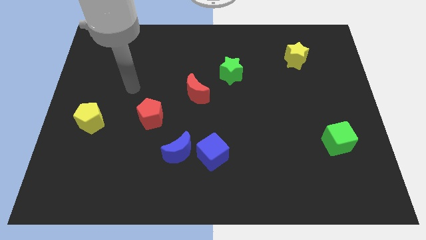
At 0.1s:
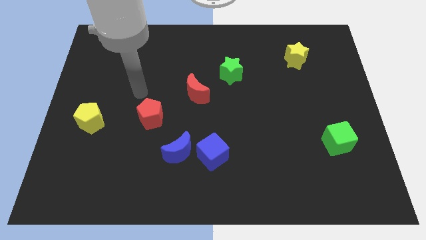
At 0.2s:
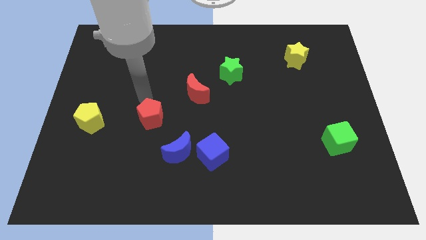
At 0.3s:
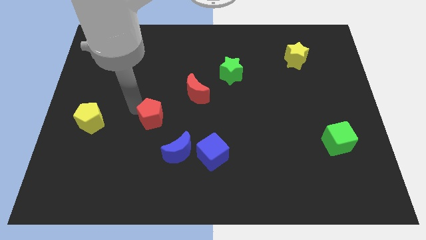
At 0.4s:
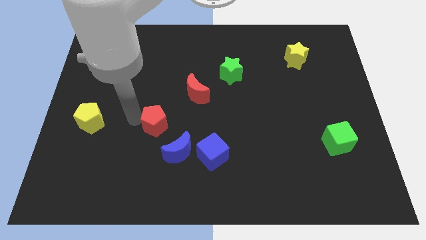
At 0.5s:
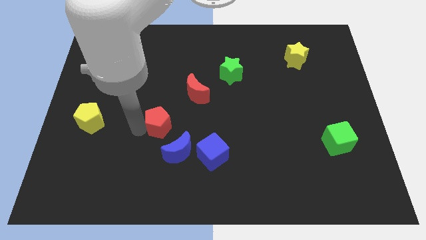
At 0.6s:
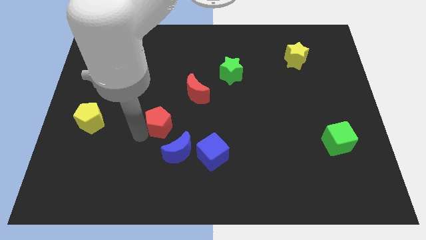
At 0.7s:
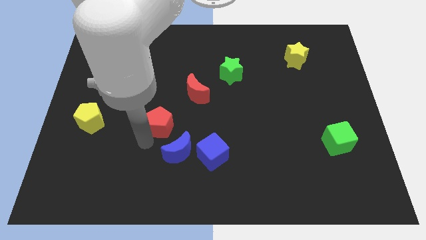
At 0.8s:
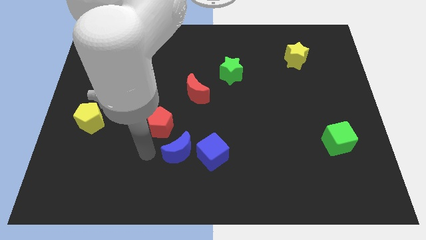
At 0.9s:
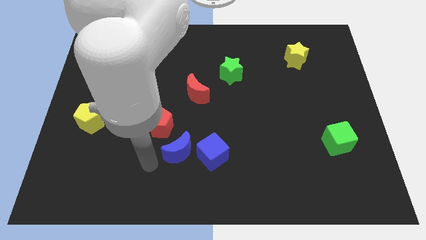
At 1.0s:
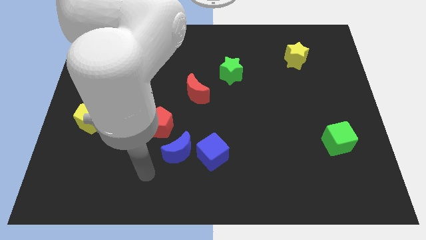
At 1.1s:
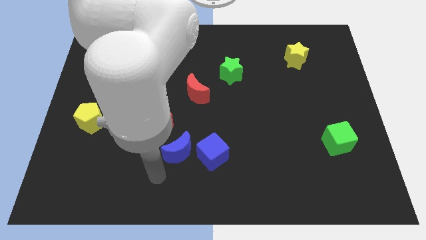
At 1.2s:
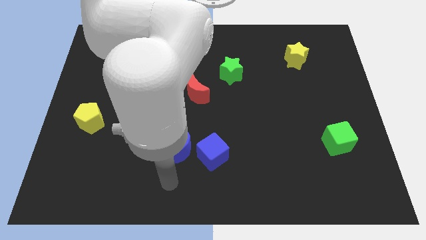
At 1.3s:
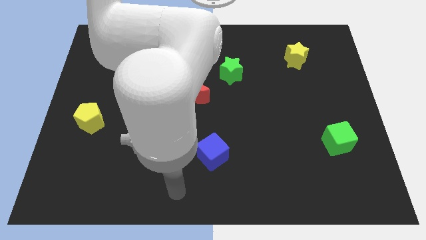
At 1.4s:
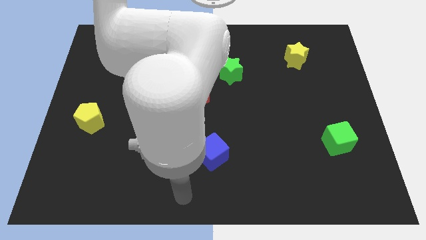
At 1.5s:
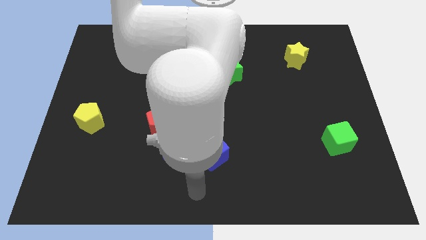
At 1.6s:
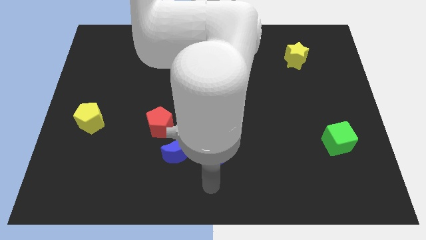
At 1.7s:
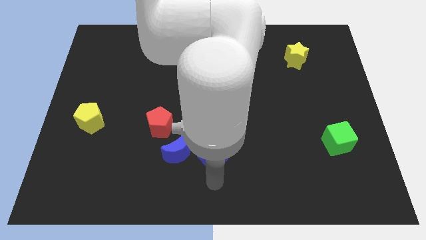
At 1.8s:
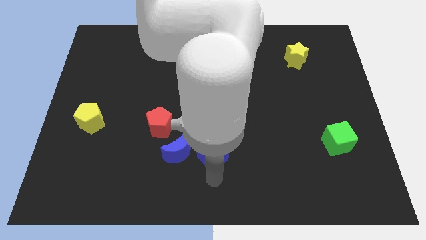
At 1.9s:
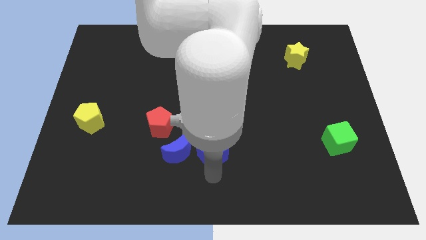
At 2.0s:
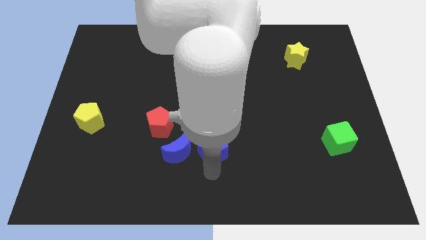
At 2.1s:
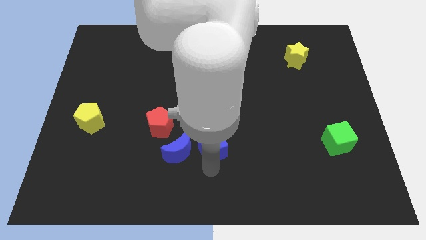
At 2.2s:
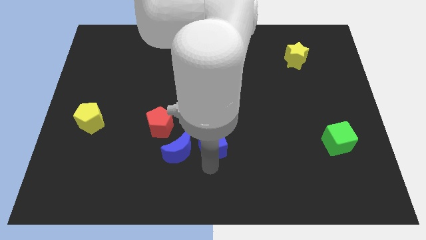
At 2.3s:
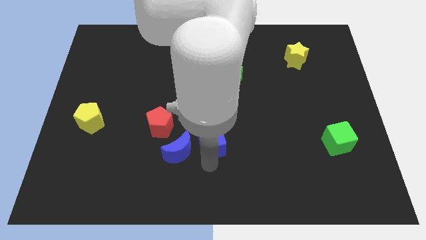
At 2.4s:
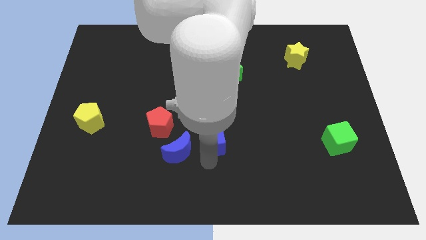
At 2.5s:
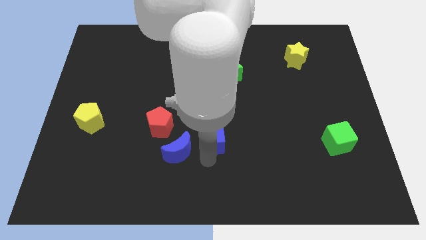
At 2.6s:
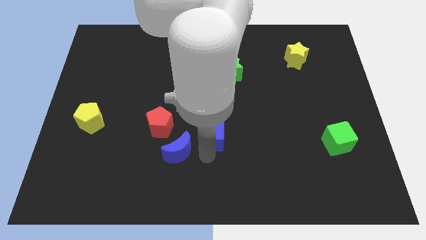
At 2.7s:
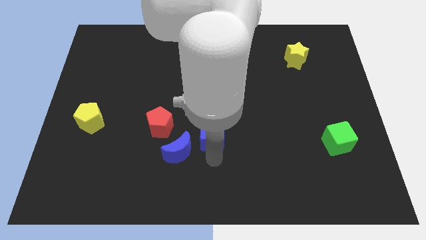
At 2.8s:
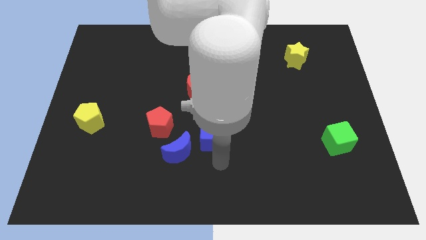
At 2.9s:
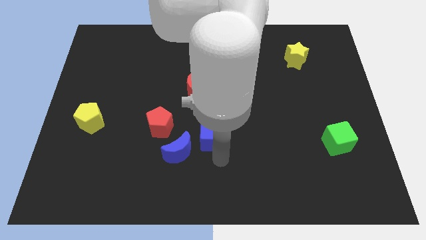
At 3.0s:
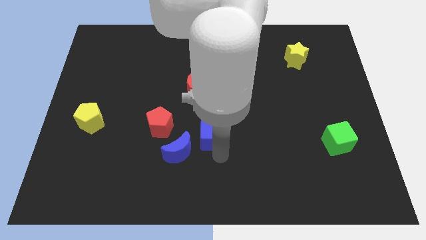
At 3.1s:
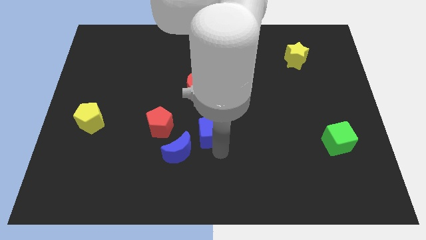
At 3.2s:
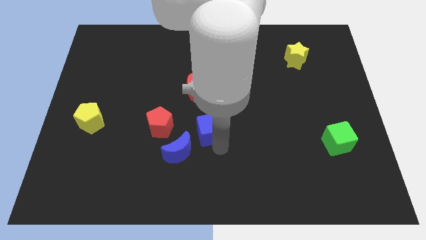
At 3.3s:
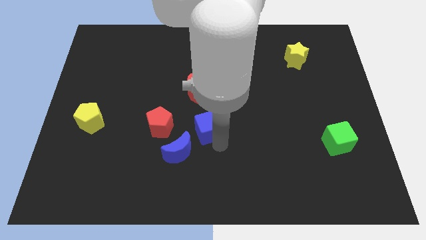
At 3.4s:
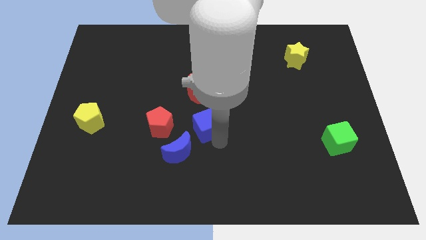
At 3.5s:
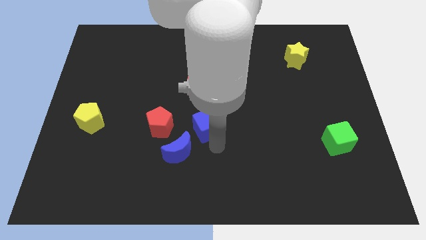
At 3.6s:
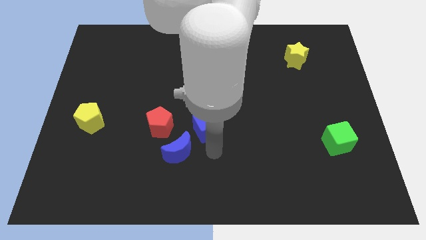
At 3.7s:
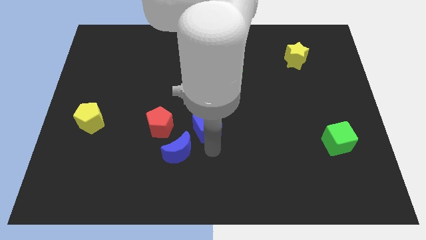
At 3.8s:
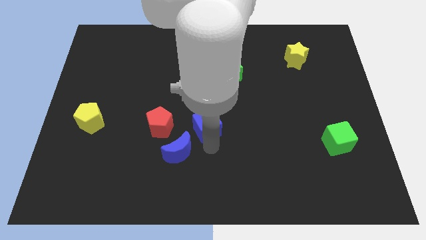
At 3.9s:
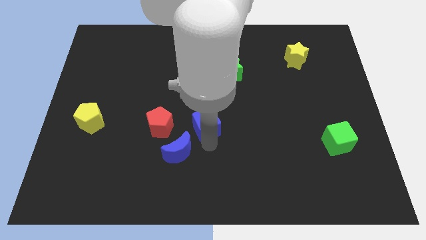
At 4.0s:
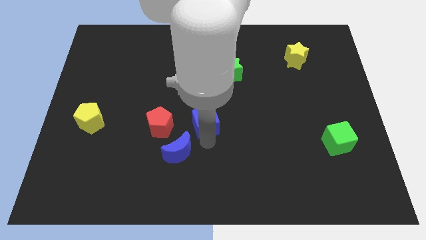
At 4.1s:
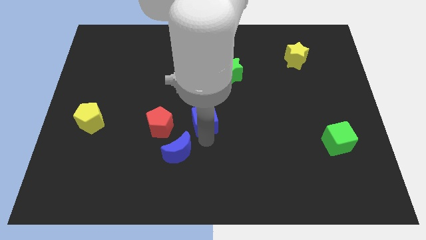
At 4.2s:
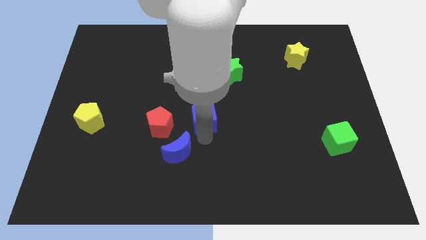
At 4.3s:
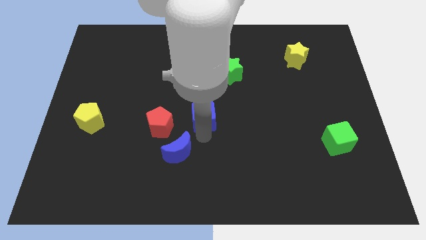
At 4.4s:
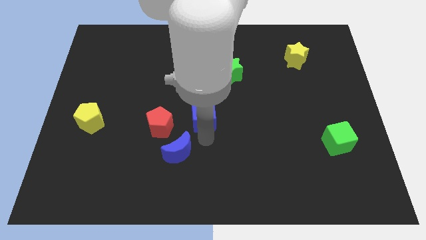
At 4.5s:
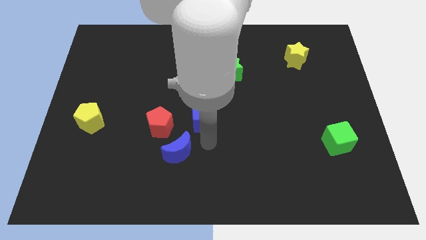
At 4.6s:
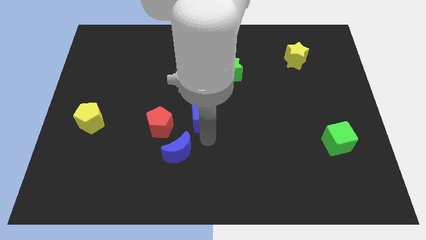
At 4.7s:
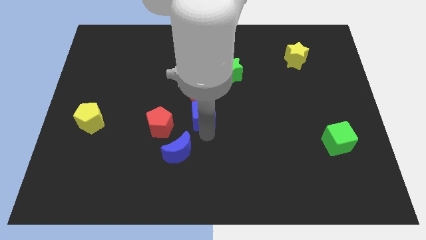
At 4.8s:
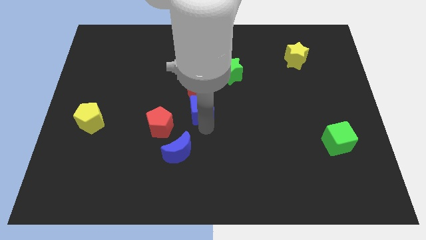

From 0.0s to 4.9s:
slide the blue cube next to the red moon

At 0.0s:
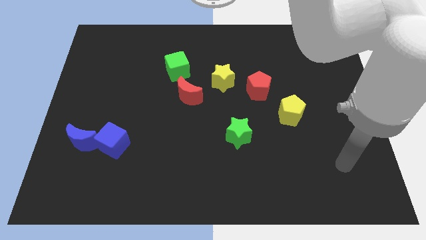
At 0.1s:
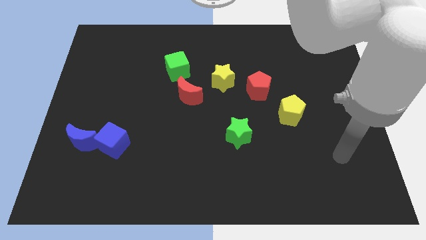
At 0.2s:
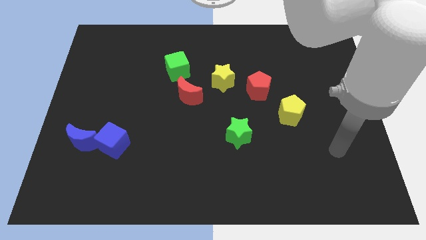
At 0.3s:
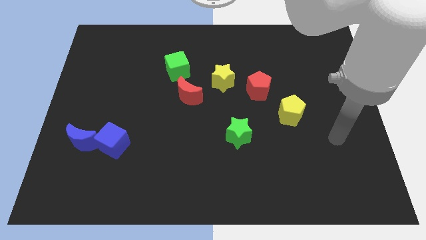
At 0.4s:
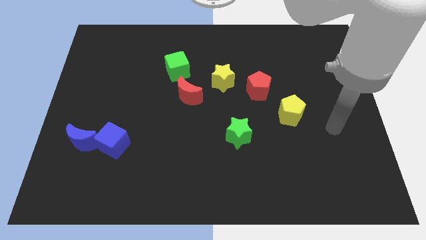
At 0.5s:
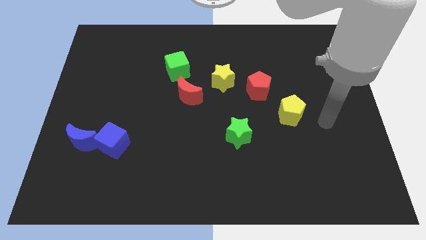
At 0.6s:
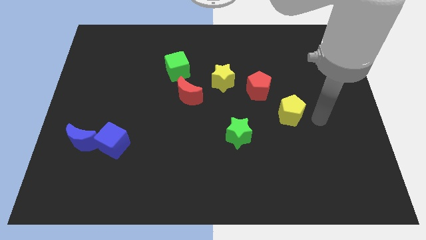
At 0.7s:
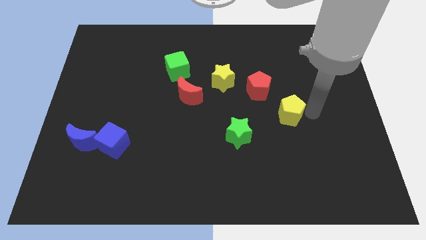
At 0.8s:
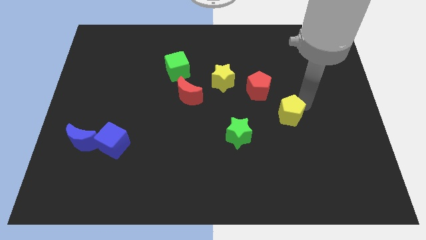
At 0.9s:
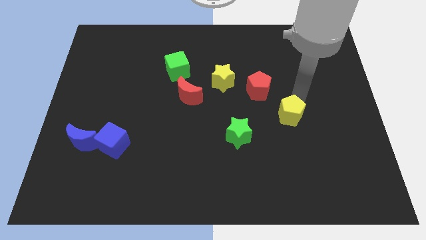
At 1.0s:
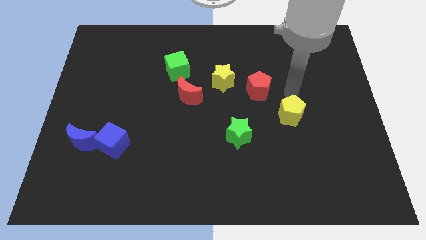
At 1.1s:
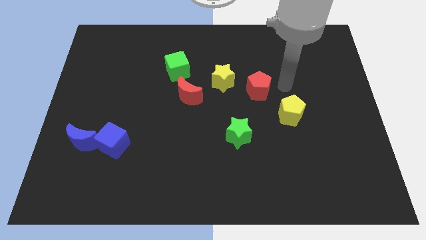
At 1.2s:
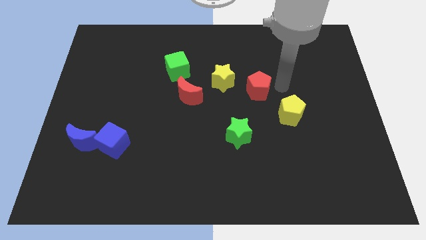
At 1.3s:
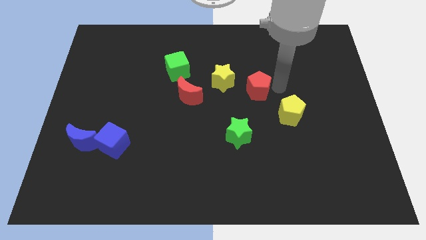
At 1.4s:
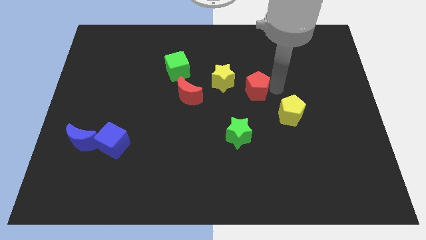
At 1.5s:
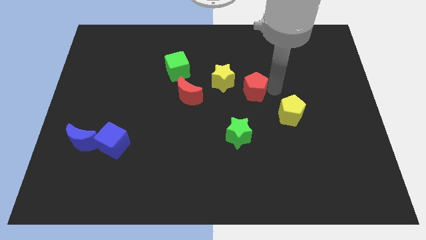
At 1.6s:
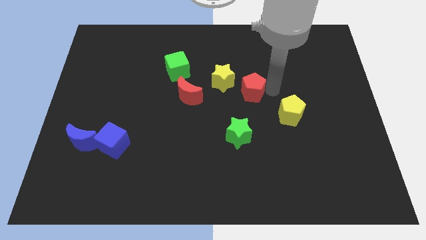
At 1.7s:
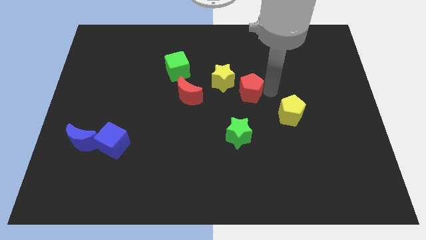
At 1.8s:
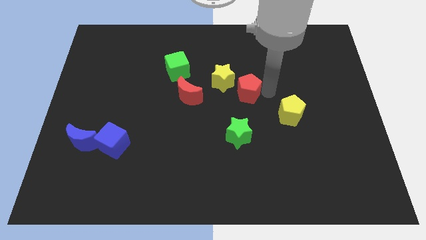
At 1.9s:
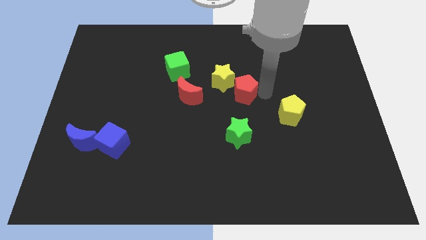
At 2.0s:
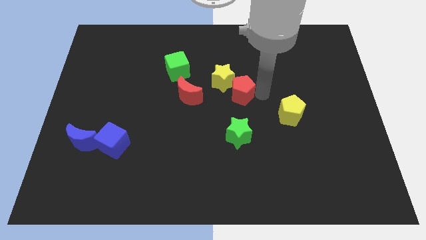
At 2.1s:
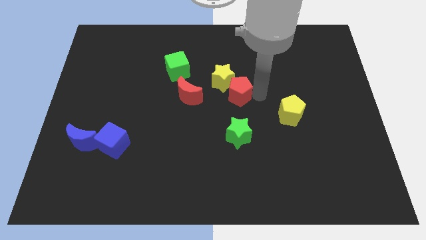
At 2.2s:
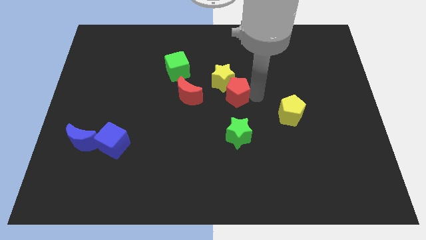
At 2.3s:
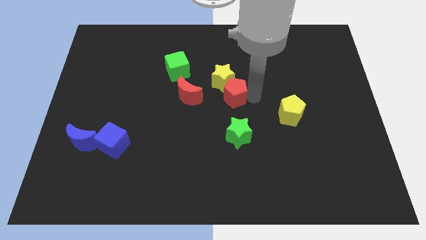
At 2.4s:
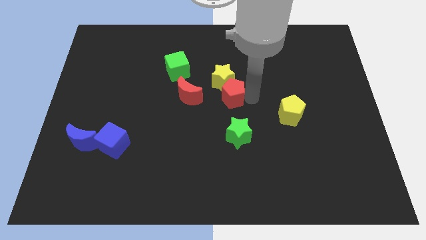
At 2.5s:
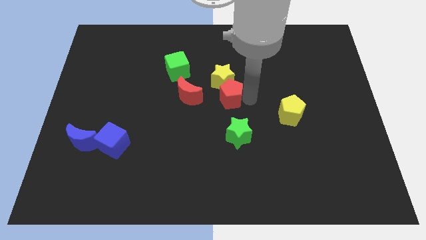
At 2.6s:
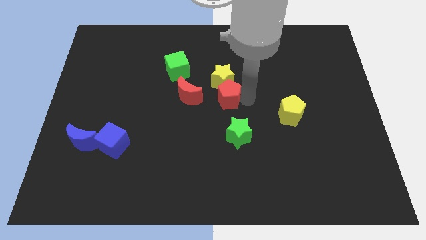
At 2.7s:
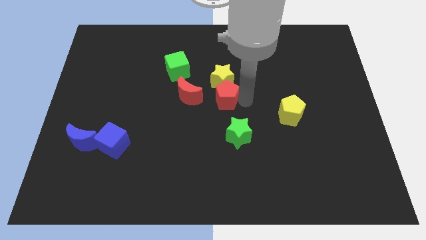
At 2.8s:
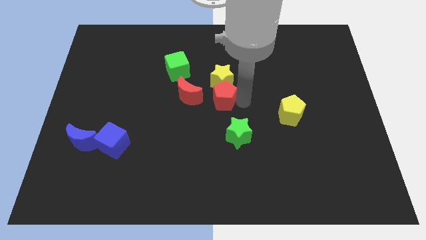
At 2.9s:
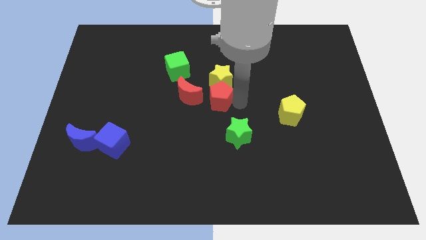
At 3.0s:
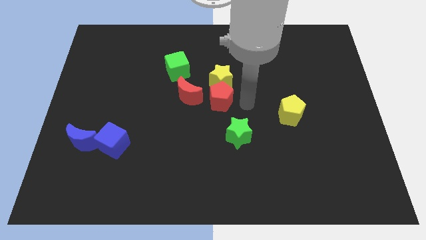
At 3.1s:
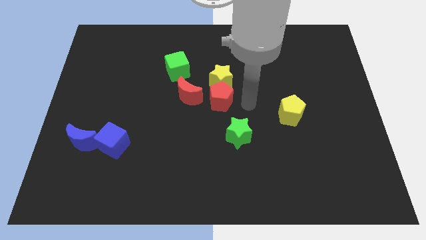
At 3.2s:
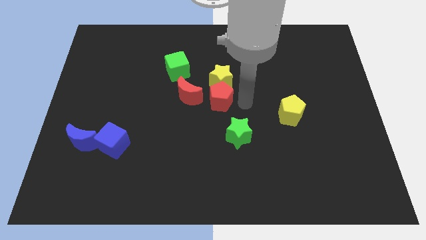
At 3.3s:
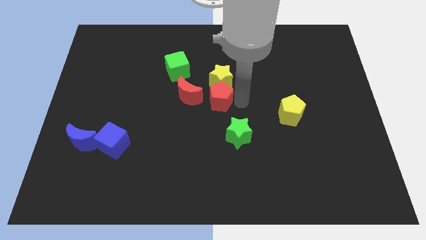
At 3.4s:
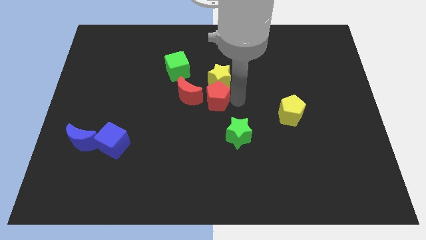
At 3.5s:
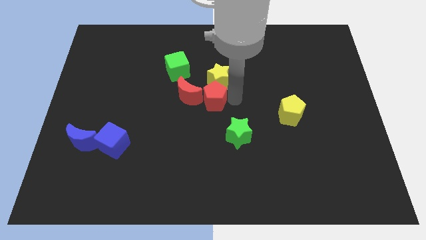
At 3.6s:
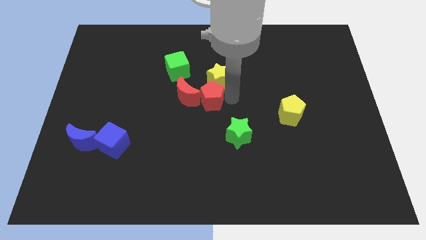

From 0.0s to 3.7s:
move the red pentagon towards the red moon
